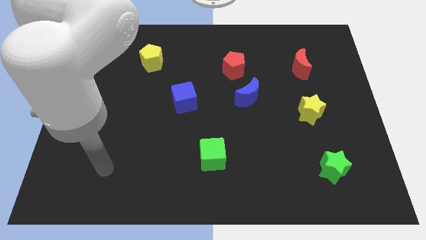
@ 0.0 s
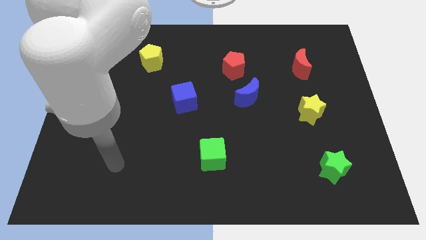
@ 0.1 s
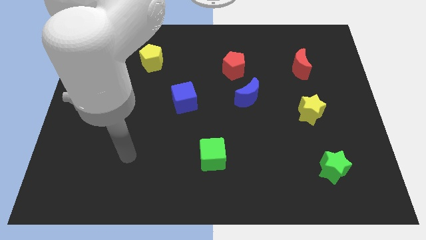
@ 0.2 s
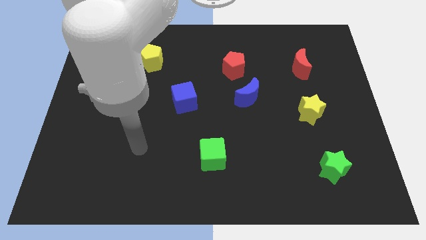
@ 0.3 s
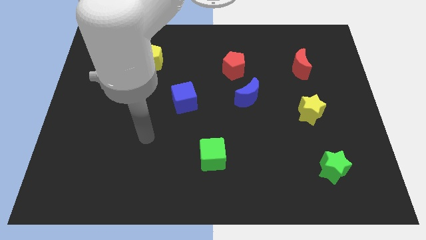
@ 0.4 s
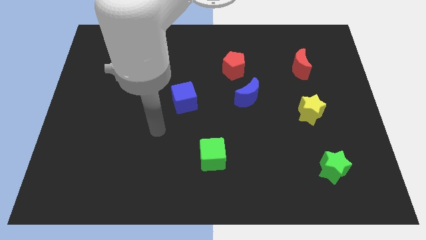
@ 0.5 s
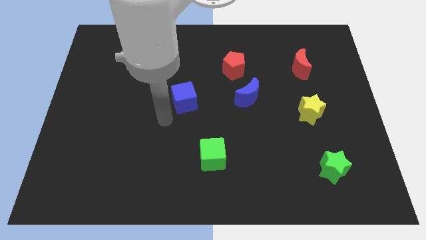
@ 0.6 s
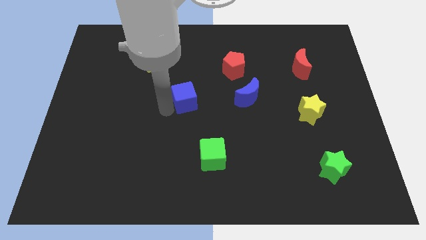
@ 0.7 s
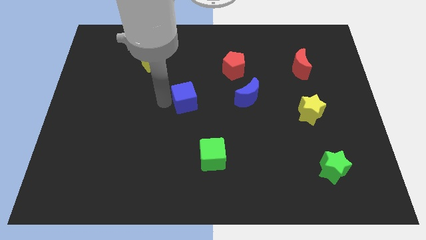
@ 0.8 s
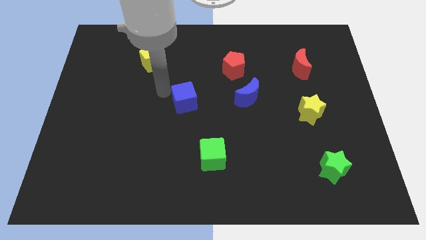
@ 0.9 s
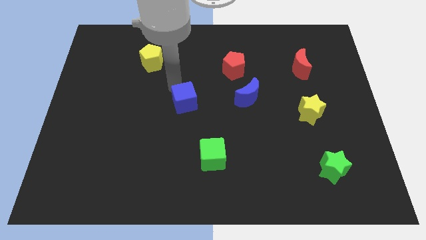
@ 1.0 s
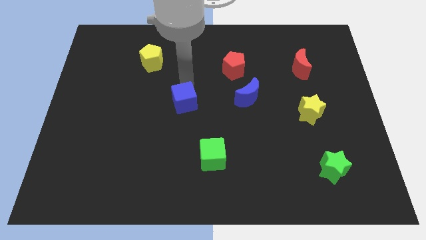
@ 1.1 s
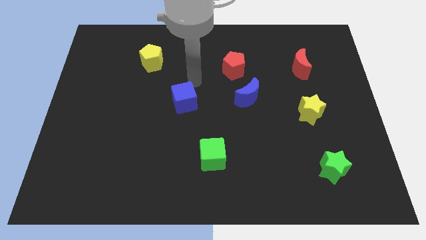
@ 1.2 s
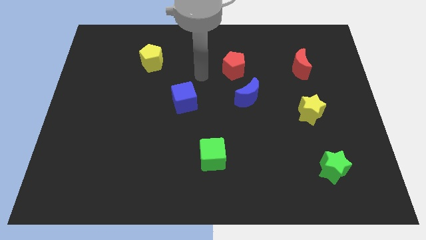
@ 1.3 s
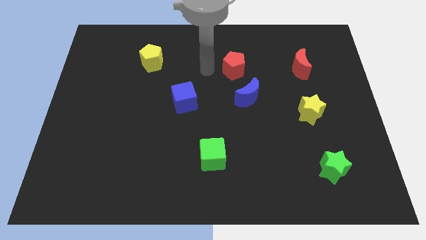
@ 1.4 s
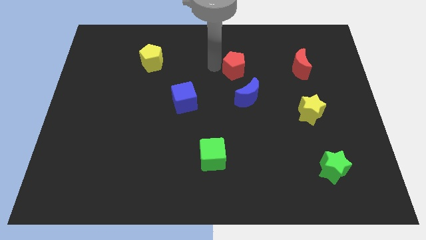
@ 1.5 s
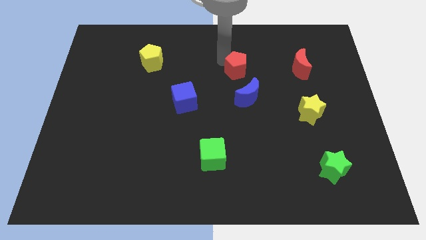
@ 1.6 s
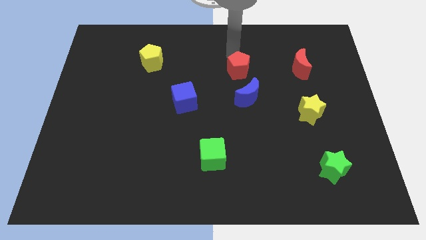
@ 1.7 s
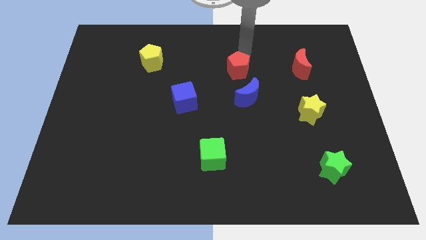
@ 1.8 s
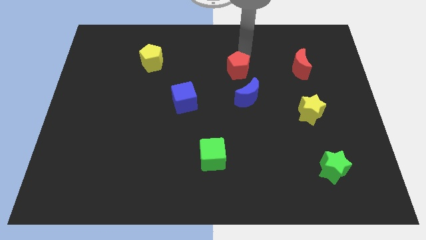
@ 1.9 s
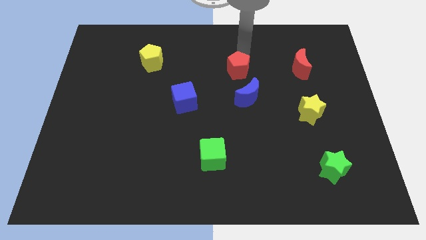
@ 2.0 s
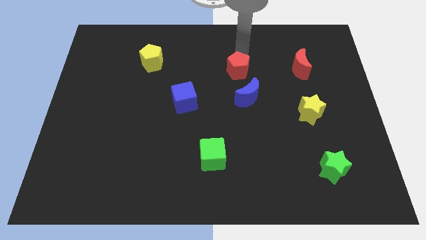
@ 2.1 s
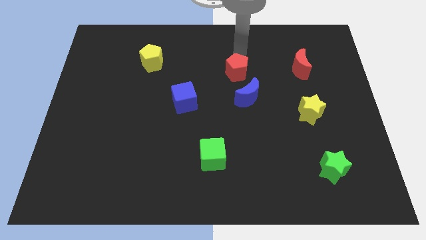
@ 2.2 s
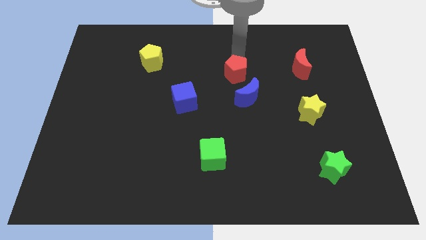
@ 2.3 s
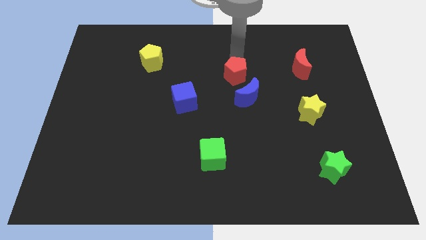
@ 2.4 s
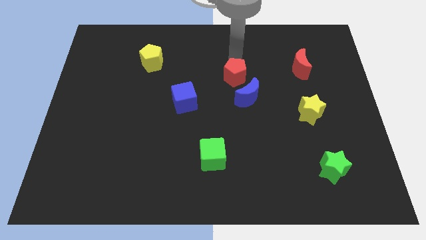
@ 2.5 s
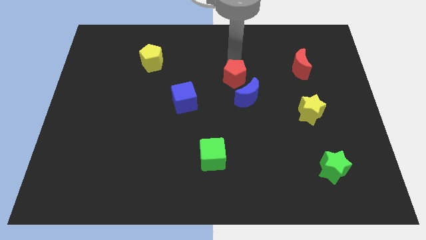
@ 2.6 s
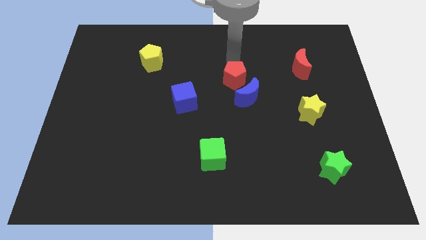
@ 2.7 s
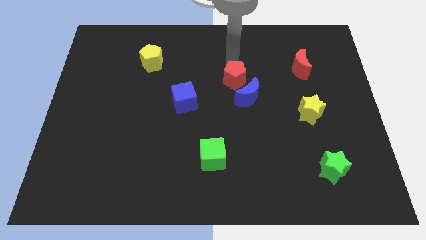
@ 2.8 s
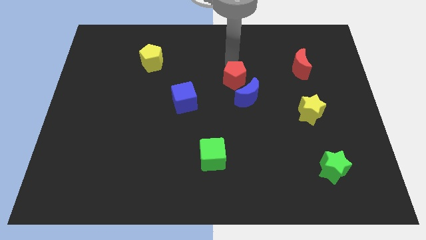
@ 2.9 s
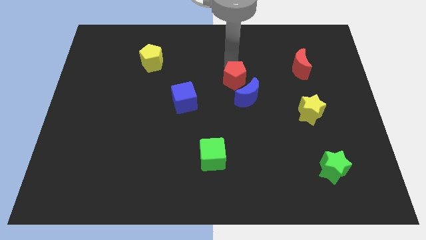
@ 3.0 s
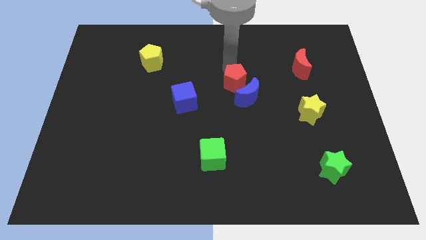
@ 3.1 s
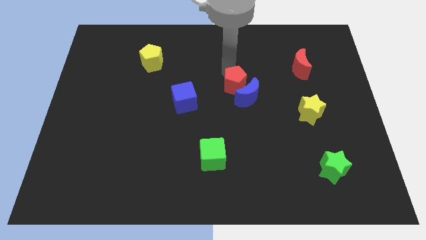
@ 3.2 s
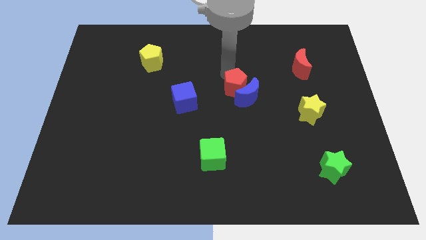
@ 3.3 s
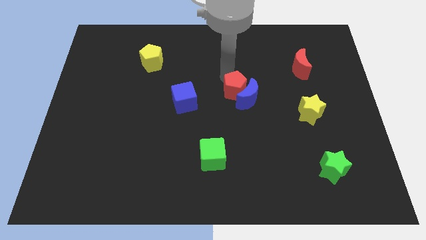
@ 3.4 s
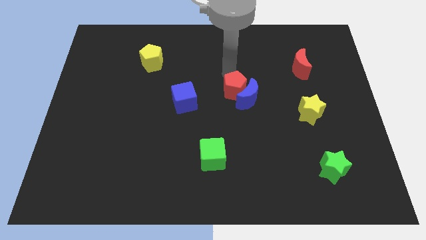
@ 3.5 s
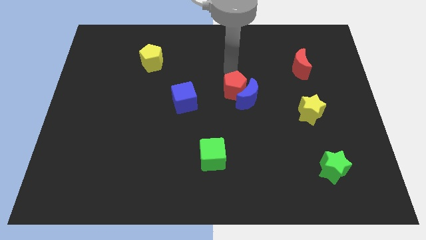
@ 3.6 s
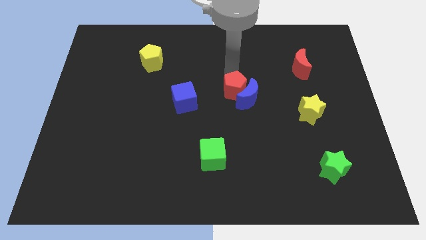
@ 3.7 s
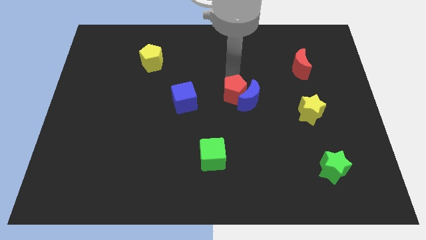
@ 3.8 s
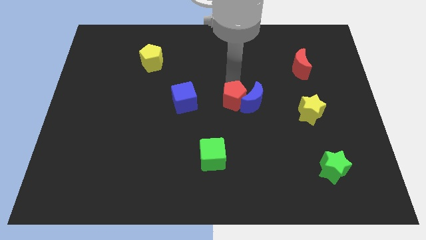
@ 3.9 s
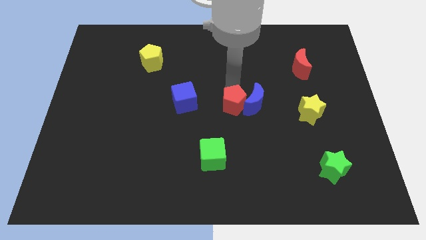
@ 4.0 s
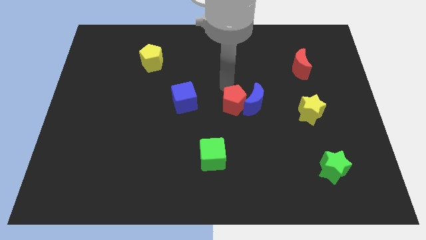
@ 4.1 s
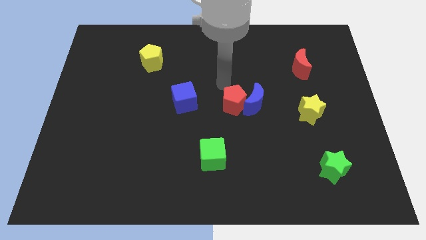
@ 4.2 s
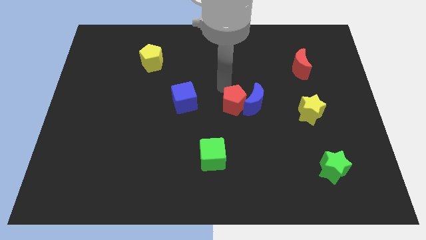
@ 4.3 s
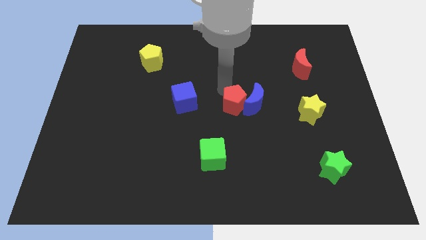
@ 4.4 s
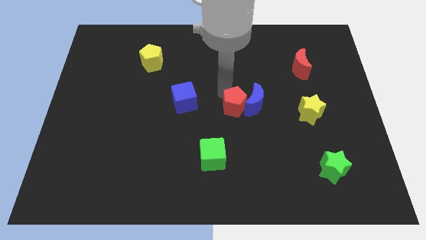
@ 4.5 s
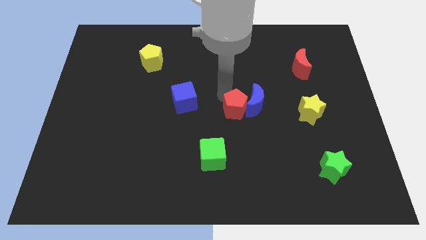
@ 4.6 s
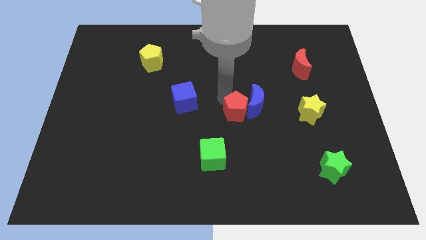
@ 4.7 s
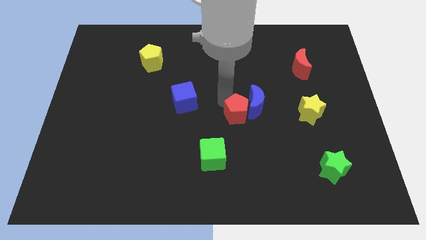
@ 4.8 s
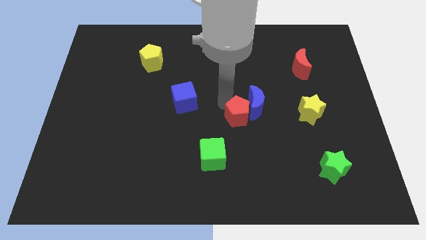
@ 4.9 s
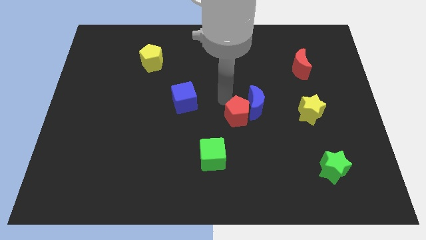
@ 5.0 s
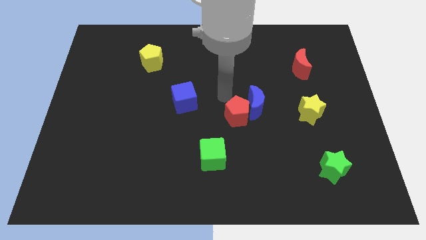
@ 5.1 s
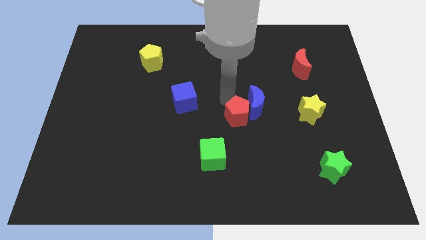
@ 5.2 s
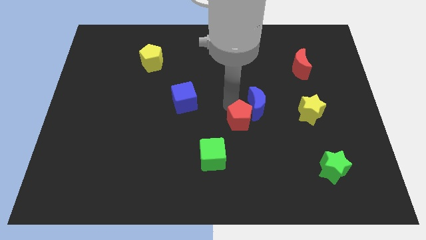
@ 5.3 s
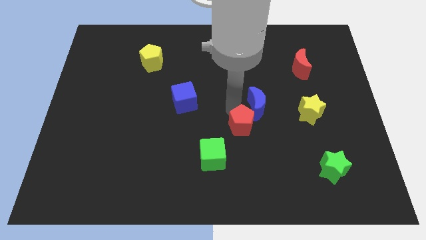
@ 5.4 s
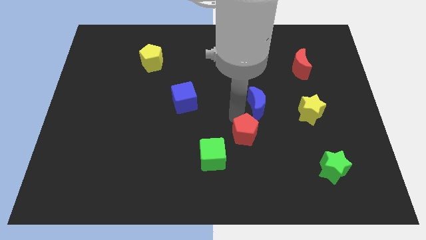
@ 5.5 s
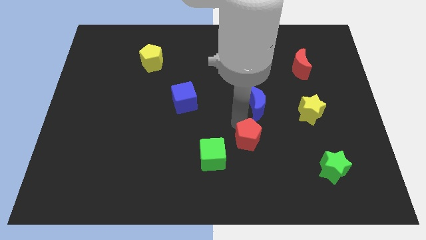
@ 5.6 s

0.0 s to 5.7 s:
push the red pentagon right of the green cube
